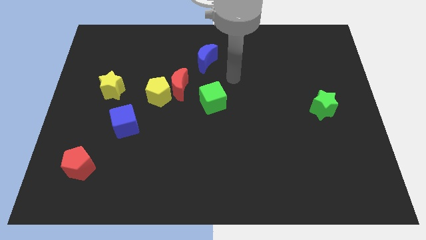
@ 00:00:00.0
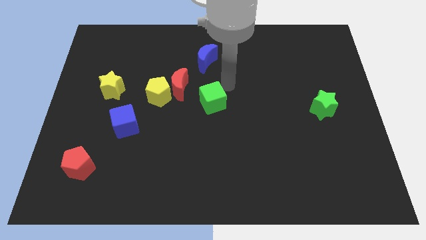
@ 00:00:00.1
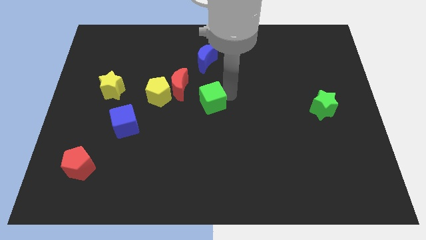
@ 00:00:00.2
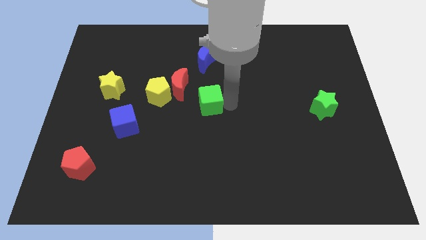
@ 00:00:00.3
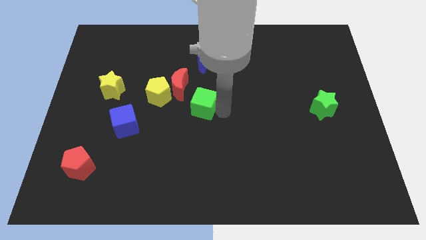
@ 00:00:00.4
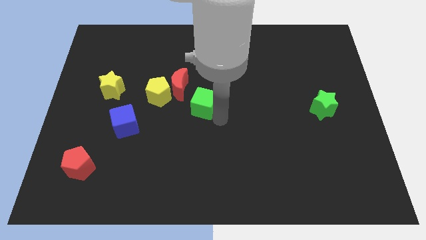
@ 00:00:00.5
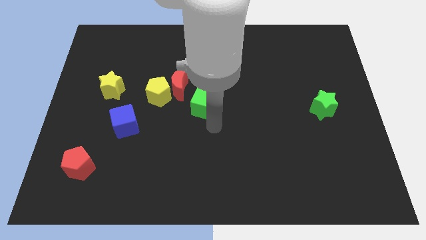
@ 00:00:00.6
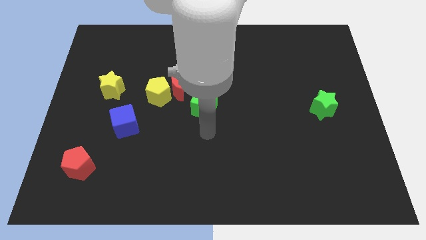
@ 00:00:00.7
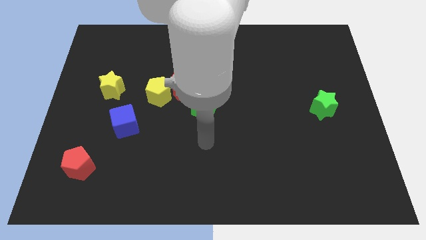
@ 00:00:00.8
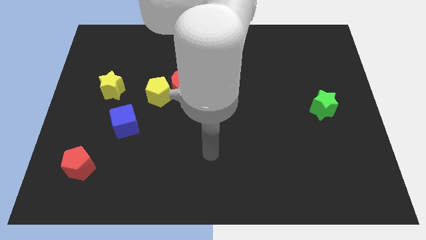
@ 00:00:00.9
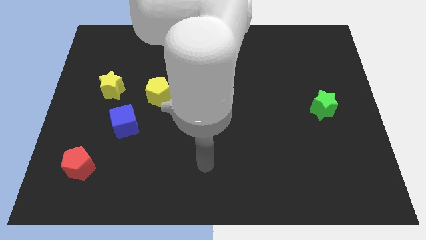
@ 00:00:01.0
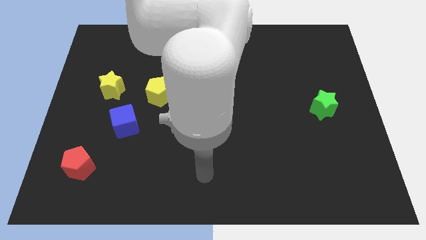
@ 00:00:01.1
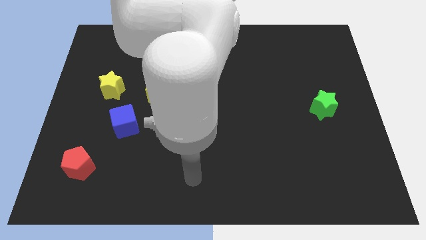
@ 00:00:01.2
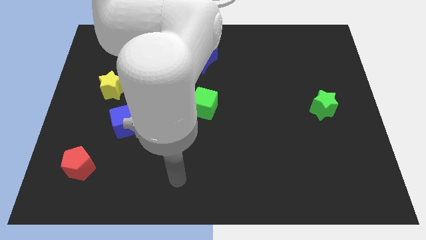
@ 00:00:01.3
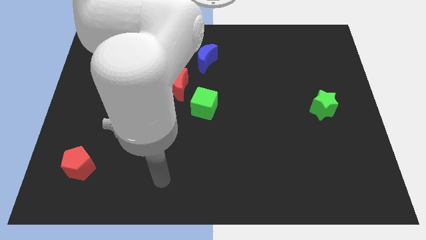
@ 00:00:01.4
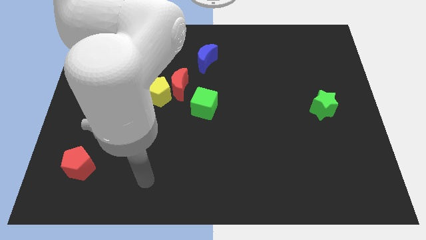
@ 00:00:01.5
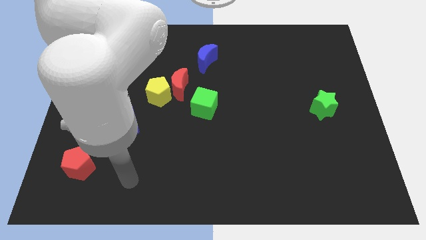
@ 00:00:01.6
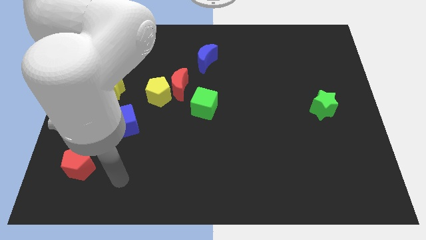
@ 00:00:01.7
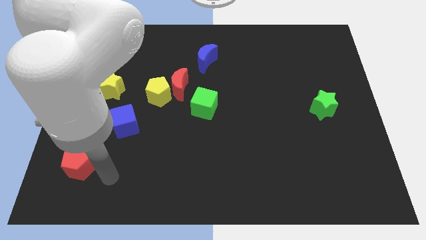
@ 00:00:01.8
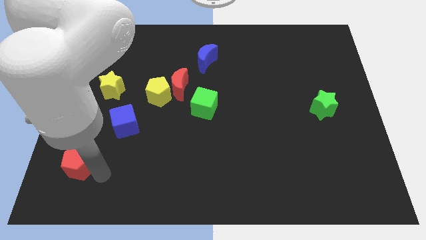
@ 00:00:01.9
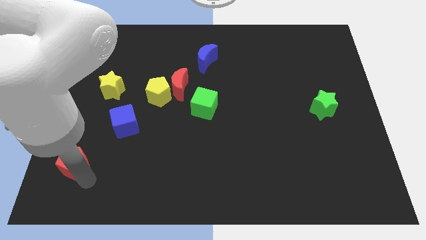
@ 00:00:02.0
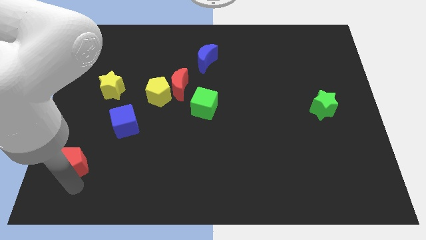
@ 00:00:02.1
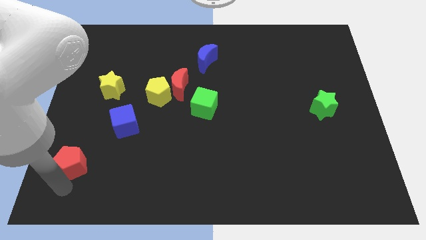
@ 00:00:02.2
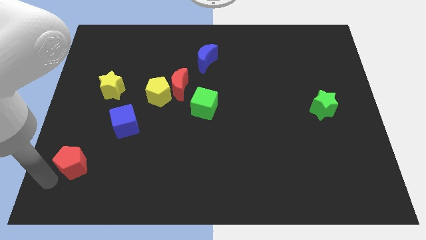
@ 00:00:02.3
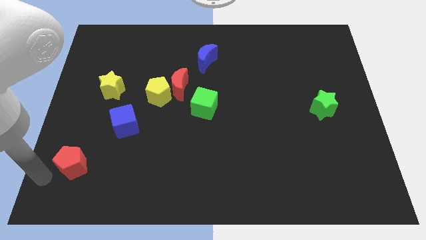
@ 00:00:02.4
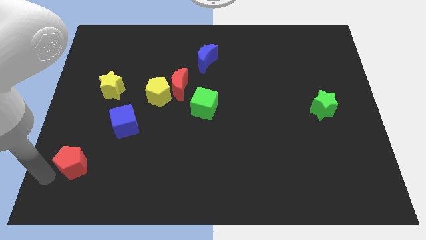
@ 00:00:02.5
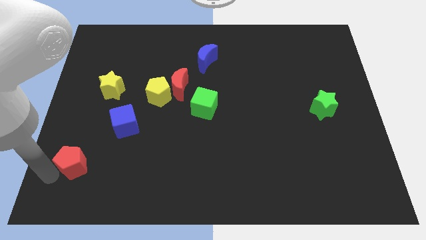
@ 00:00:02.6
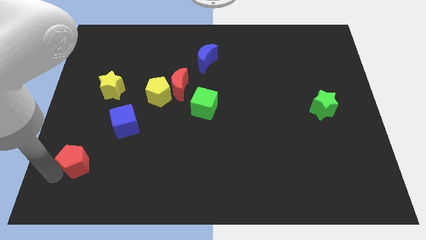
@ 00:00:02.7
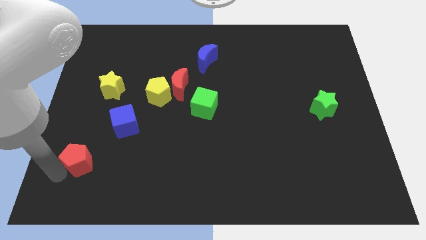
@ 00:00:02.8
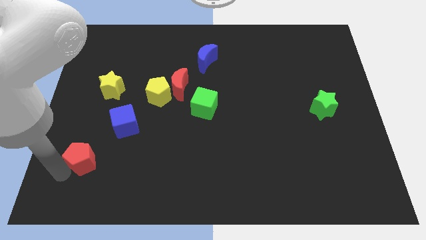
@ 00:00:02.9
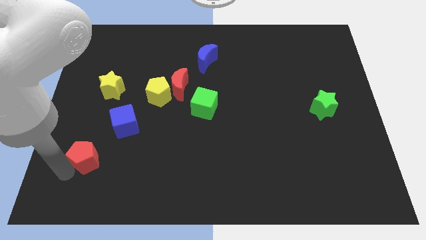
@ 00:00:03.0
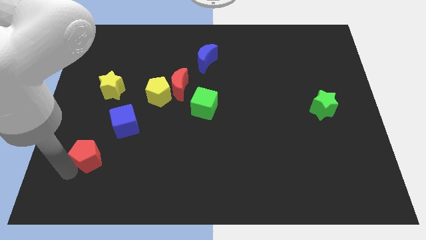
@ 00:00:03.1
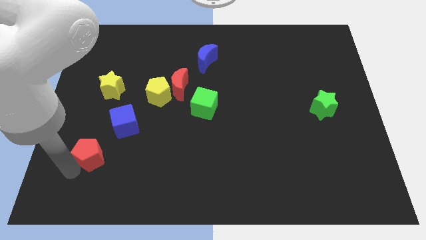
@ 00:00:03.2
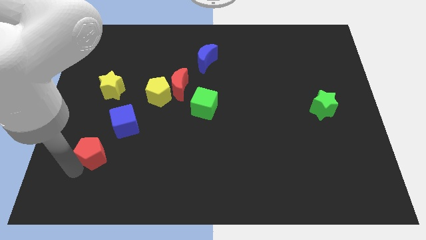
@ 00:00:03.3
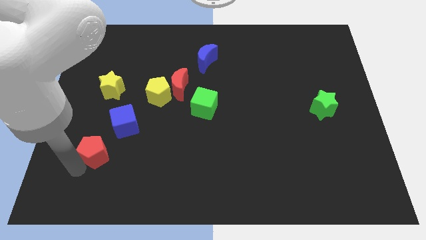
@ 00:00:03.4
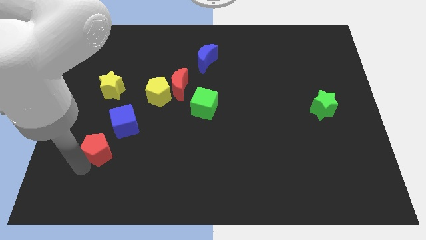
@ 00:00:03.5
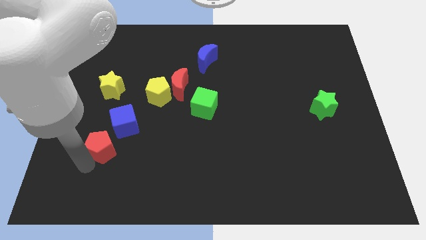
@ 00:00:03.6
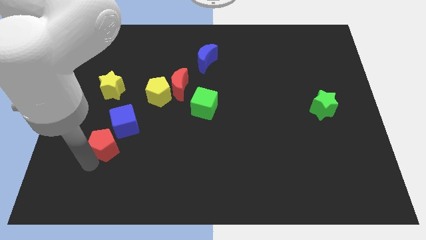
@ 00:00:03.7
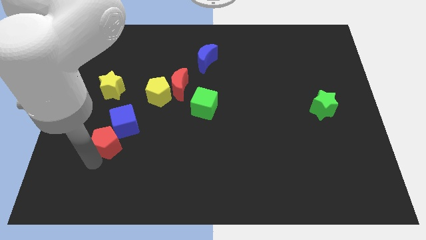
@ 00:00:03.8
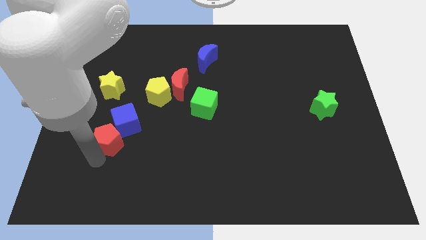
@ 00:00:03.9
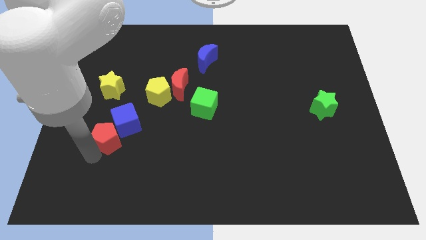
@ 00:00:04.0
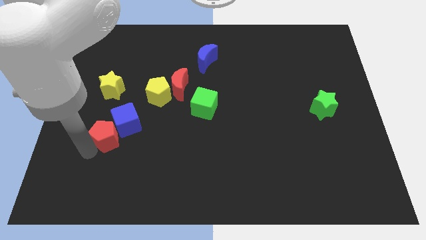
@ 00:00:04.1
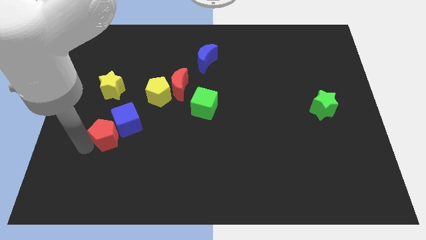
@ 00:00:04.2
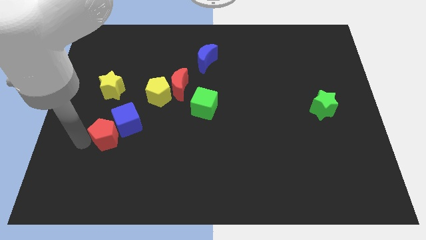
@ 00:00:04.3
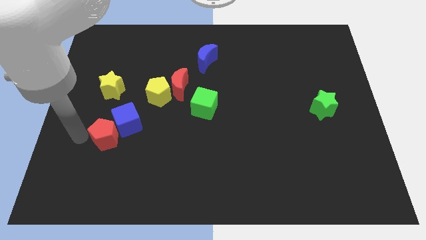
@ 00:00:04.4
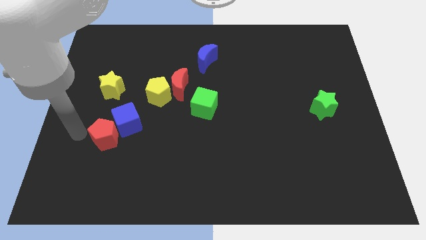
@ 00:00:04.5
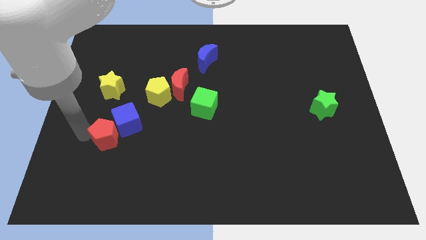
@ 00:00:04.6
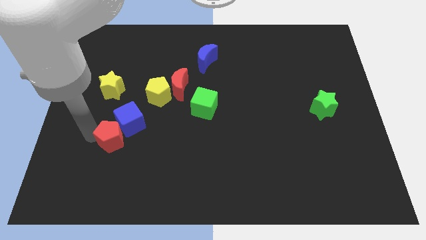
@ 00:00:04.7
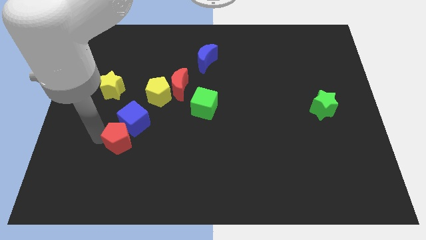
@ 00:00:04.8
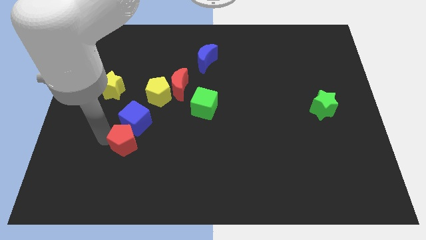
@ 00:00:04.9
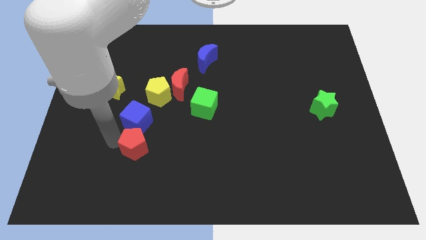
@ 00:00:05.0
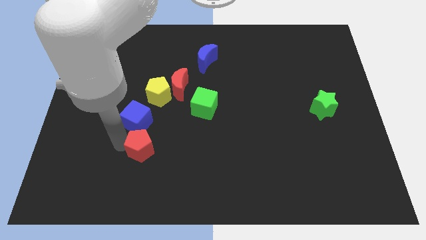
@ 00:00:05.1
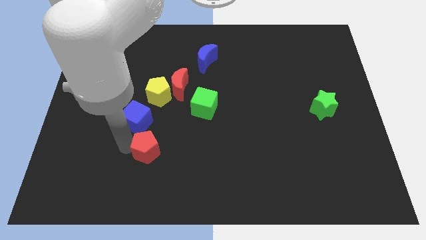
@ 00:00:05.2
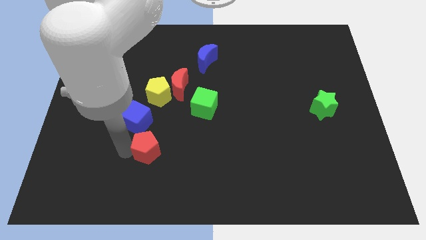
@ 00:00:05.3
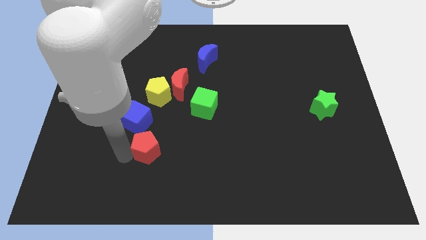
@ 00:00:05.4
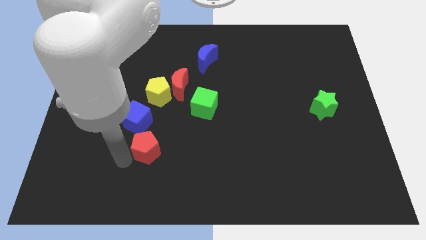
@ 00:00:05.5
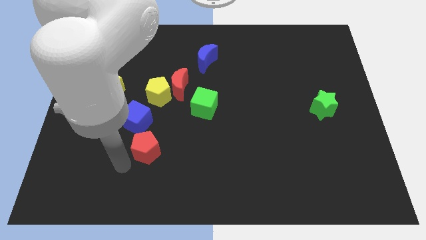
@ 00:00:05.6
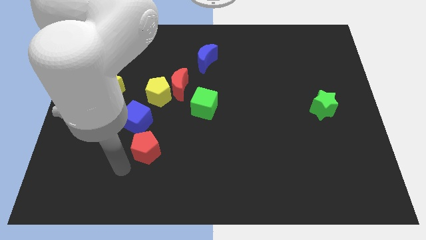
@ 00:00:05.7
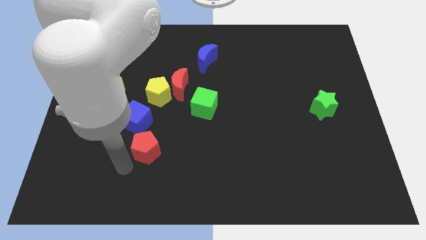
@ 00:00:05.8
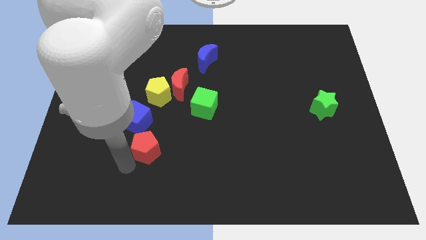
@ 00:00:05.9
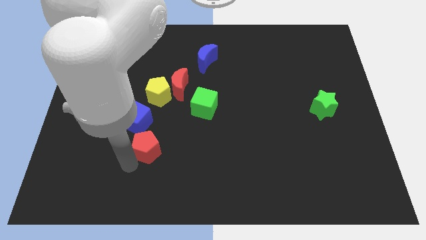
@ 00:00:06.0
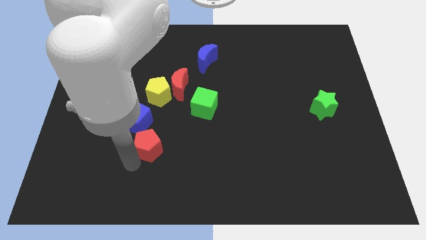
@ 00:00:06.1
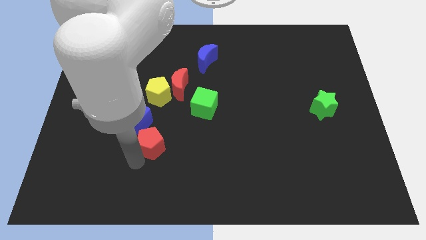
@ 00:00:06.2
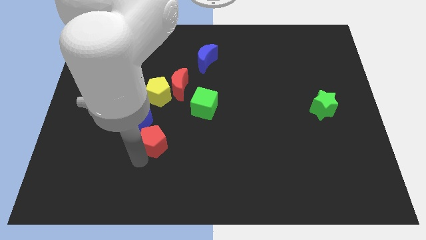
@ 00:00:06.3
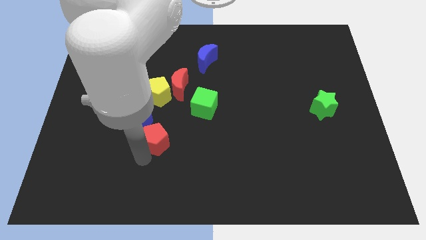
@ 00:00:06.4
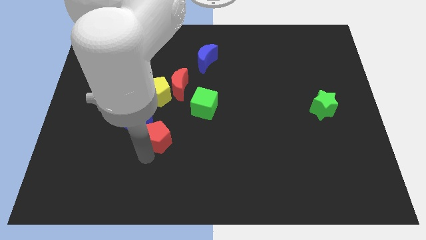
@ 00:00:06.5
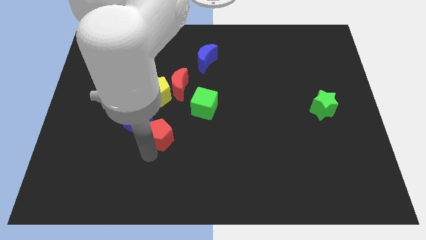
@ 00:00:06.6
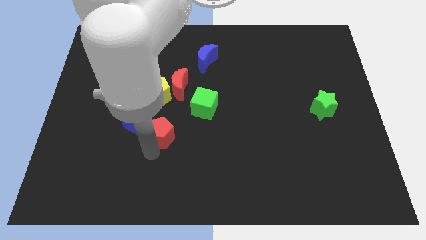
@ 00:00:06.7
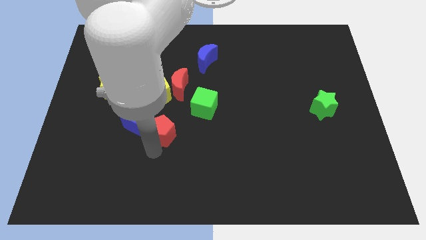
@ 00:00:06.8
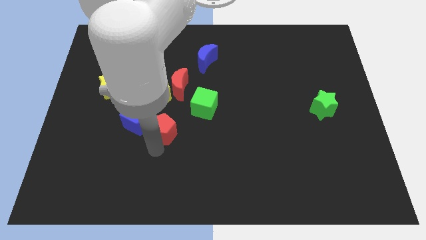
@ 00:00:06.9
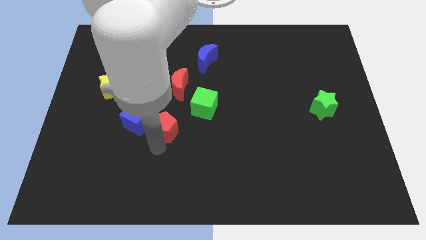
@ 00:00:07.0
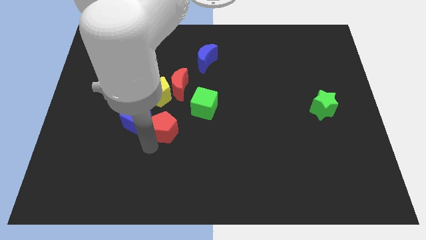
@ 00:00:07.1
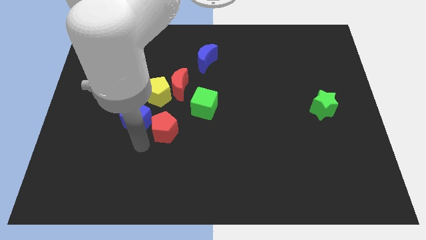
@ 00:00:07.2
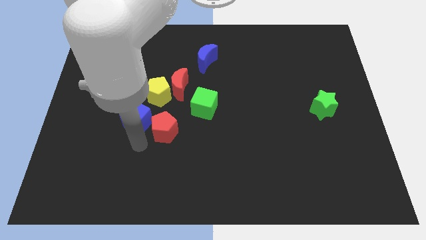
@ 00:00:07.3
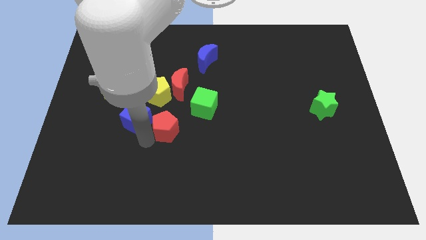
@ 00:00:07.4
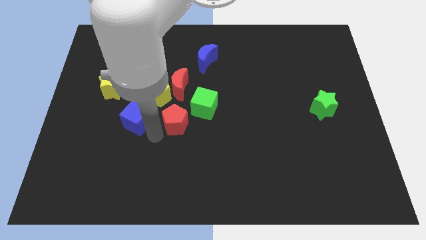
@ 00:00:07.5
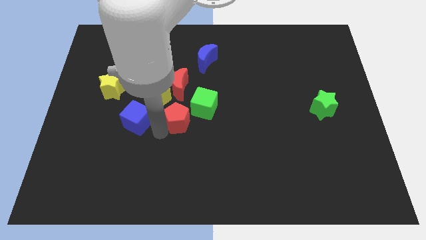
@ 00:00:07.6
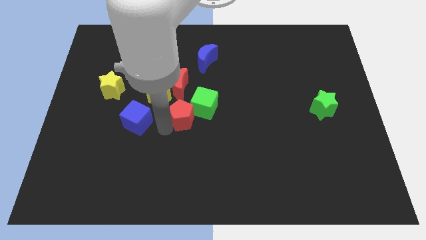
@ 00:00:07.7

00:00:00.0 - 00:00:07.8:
move the red pentagon next to the green cube
